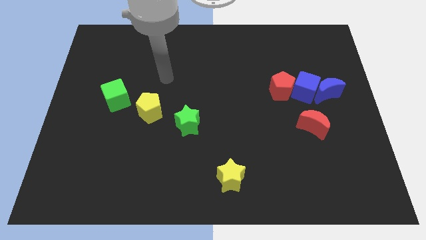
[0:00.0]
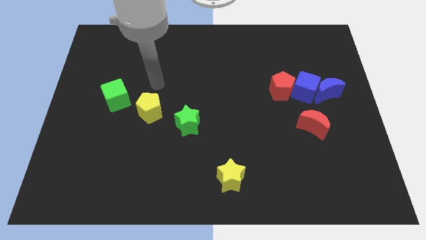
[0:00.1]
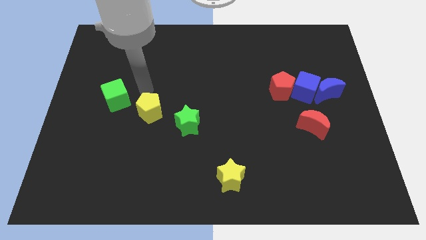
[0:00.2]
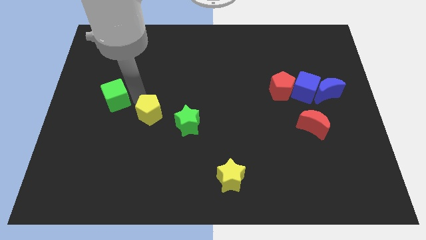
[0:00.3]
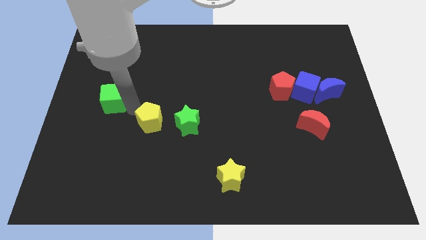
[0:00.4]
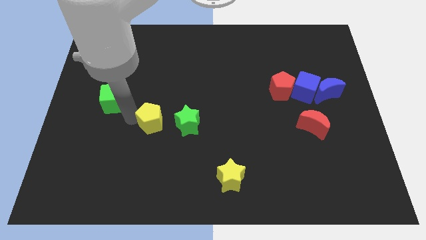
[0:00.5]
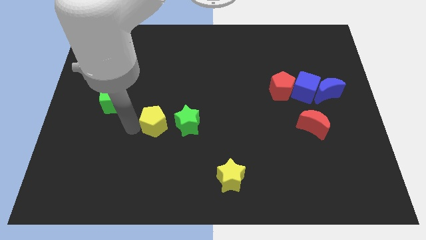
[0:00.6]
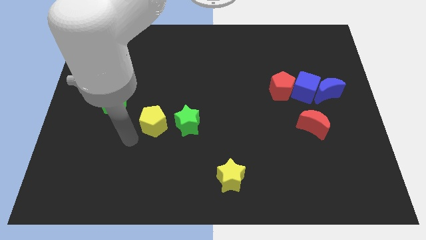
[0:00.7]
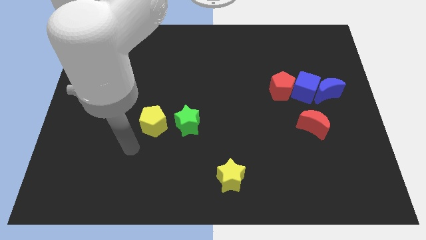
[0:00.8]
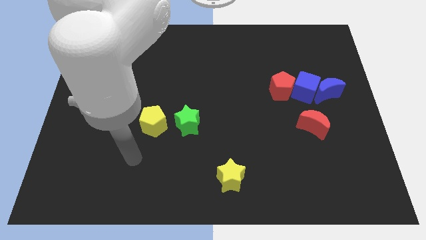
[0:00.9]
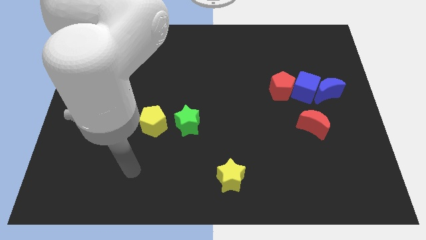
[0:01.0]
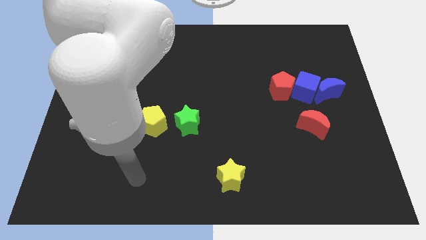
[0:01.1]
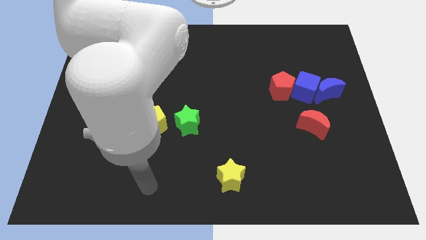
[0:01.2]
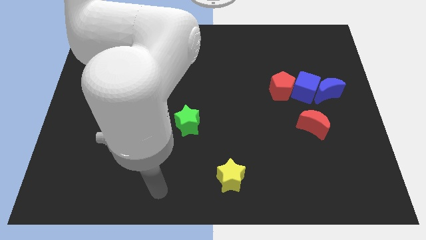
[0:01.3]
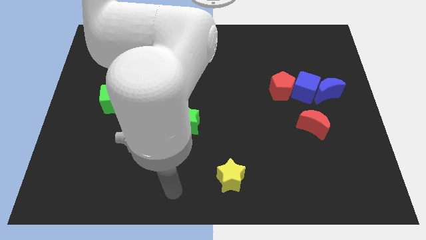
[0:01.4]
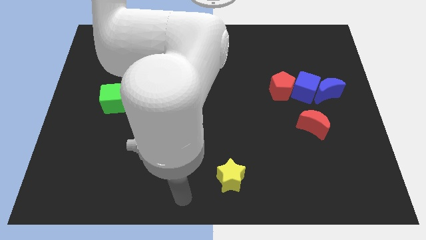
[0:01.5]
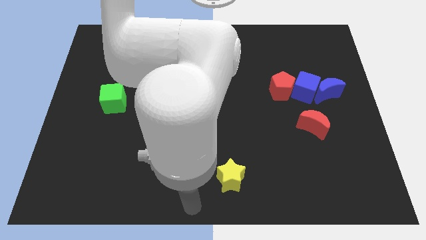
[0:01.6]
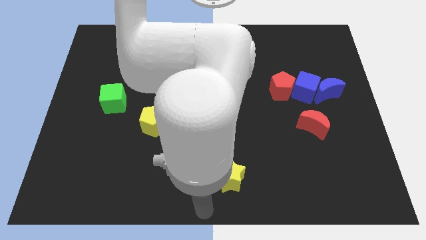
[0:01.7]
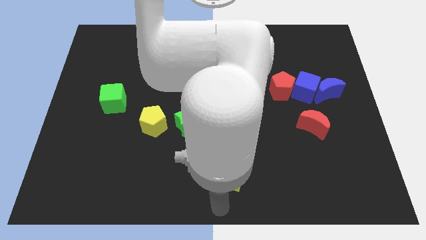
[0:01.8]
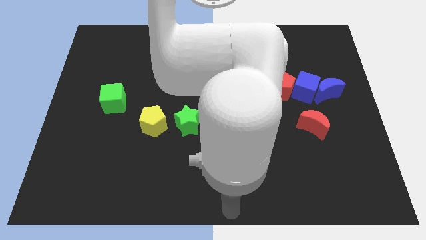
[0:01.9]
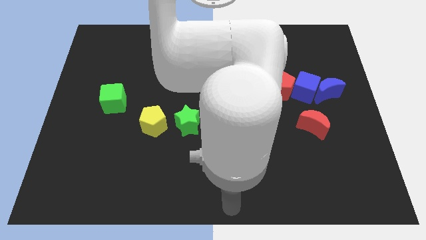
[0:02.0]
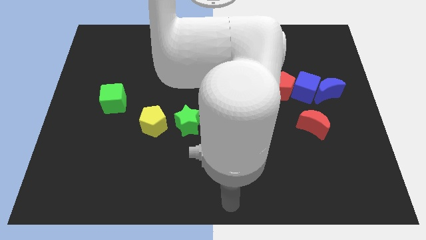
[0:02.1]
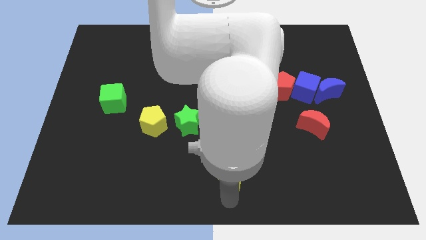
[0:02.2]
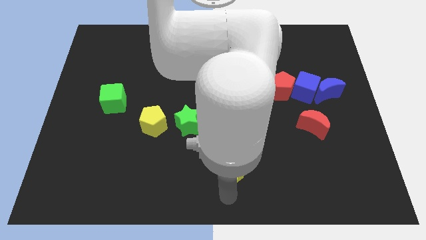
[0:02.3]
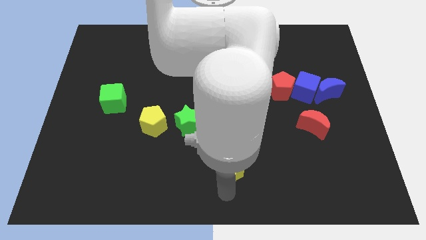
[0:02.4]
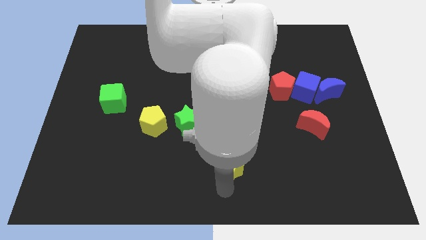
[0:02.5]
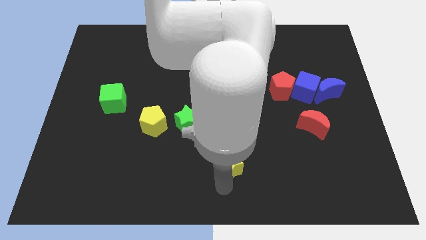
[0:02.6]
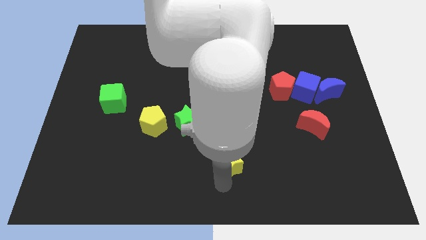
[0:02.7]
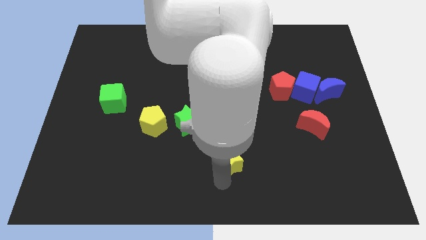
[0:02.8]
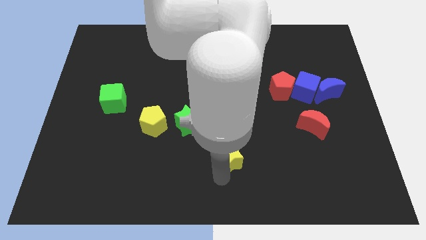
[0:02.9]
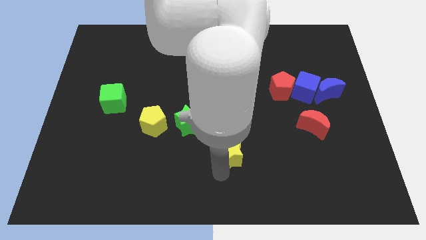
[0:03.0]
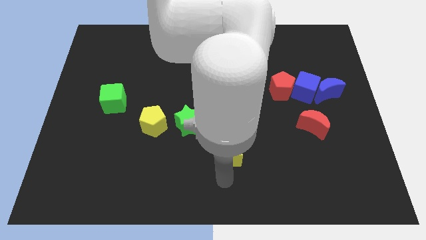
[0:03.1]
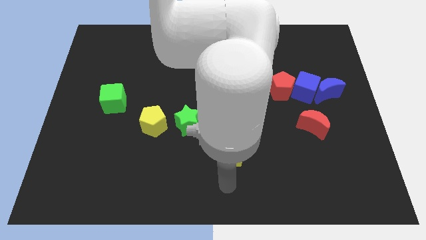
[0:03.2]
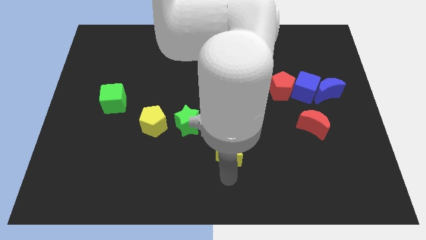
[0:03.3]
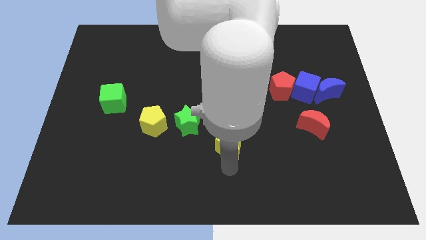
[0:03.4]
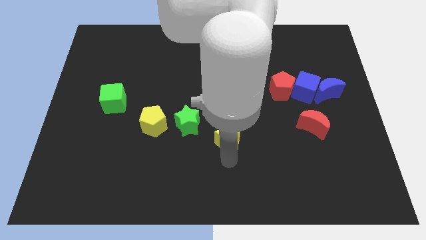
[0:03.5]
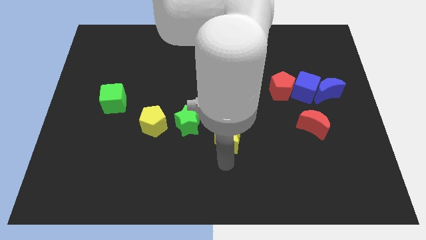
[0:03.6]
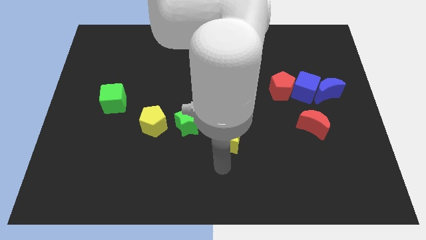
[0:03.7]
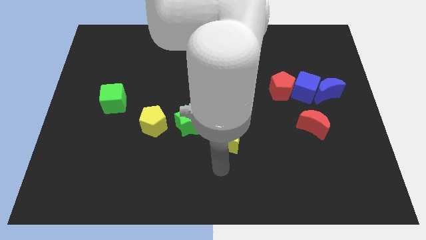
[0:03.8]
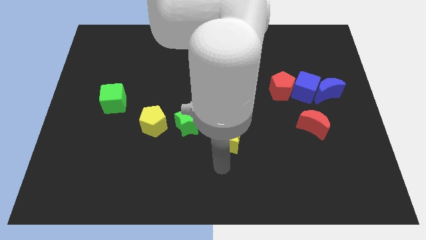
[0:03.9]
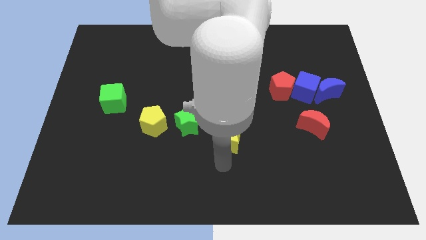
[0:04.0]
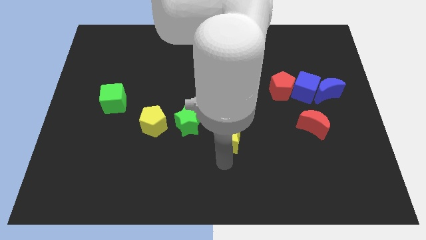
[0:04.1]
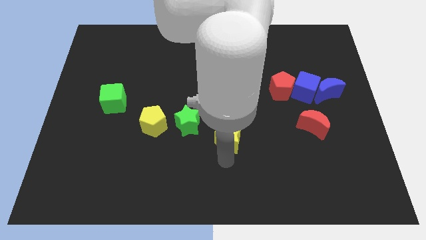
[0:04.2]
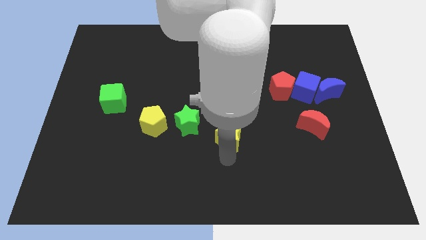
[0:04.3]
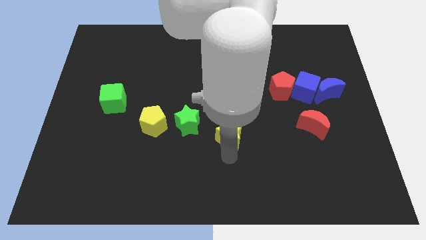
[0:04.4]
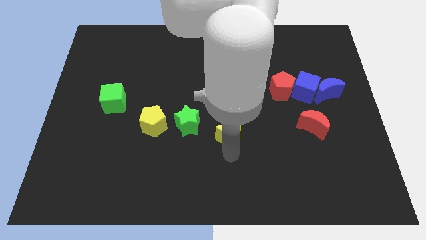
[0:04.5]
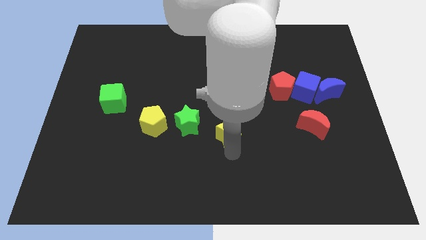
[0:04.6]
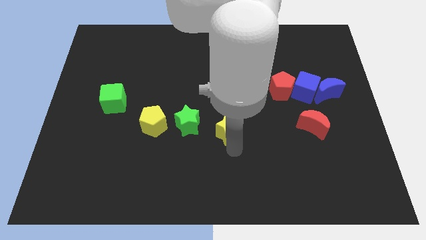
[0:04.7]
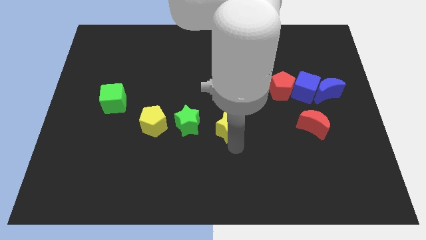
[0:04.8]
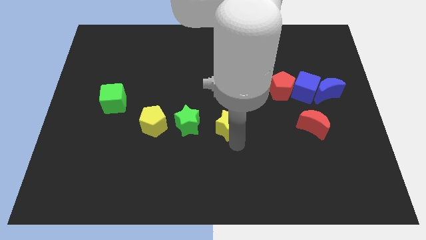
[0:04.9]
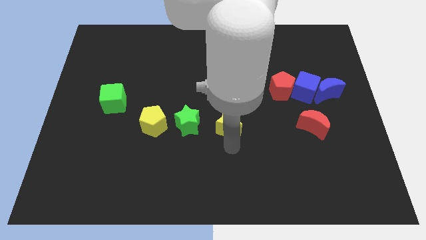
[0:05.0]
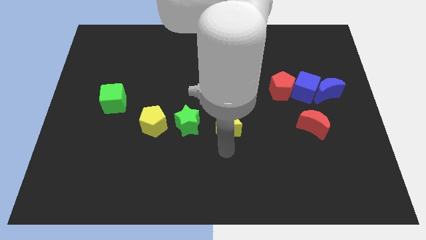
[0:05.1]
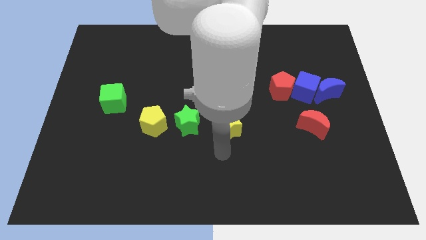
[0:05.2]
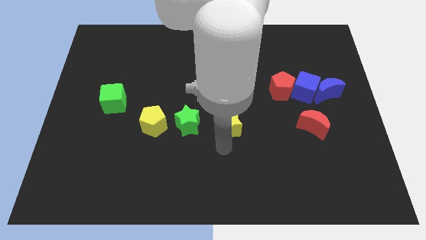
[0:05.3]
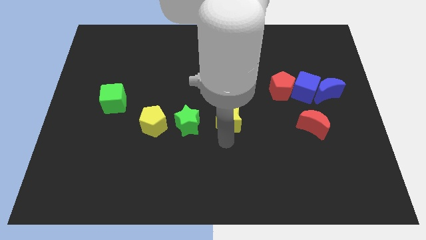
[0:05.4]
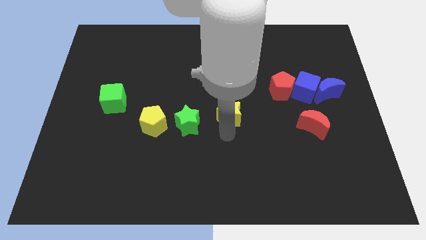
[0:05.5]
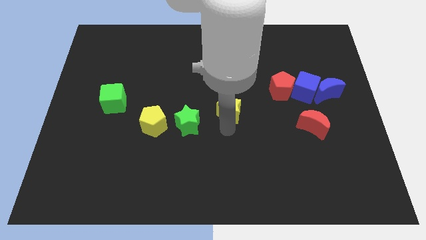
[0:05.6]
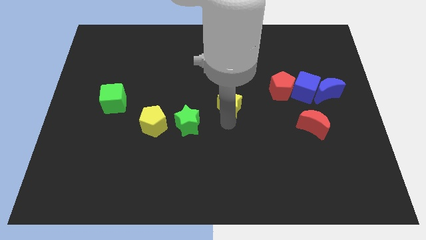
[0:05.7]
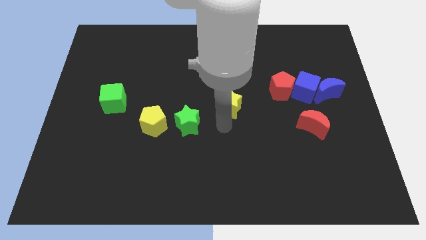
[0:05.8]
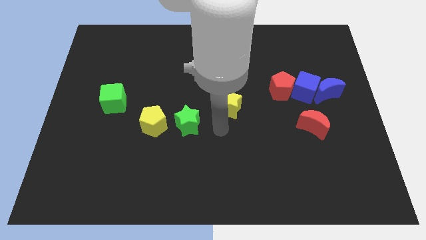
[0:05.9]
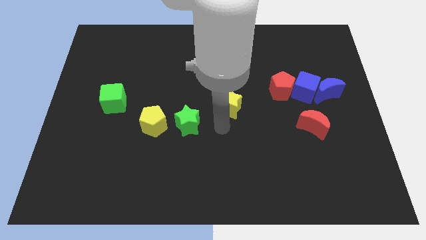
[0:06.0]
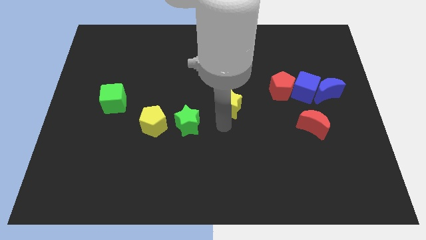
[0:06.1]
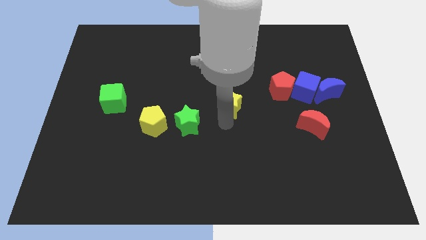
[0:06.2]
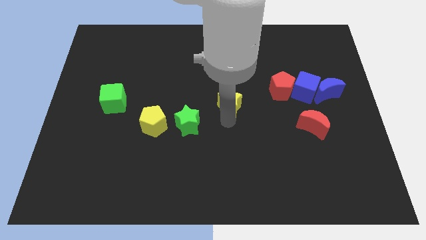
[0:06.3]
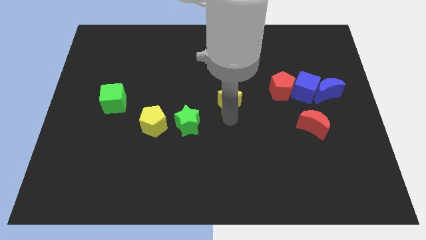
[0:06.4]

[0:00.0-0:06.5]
push the yellow star up

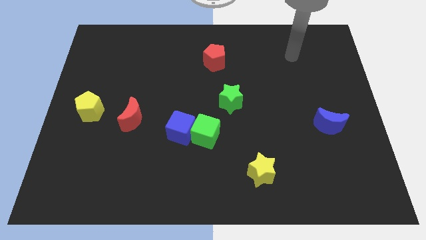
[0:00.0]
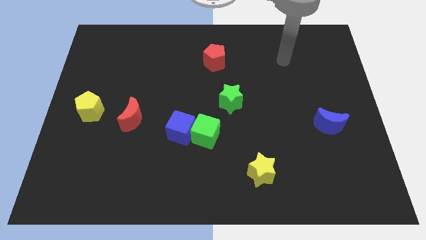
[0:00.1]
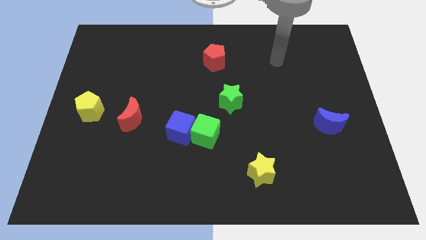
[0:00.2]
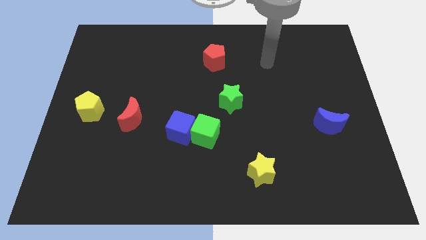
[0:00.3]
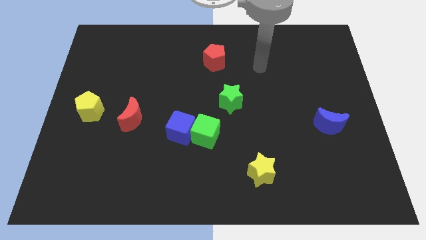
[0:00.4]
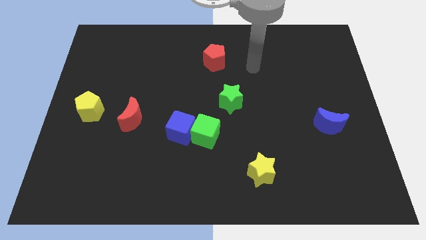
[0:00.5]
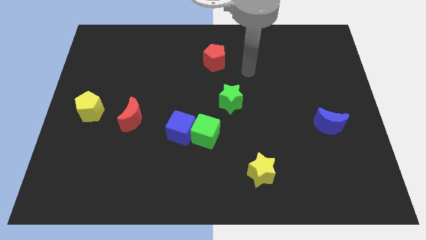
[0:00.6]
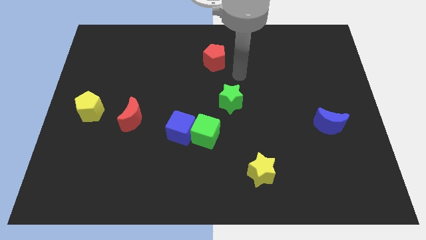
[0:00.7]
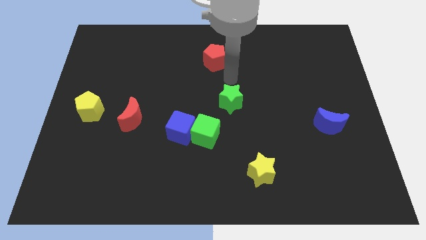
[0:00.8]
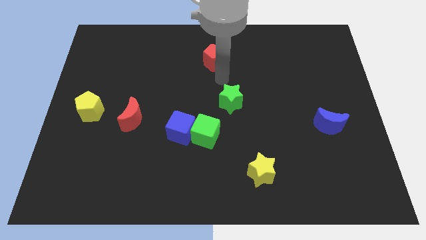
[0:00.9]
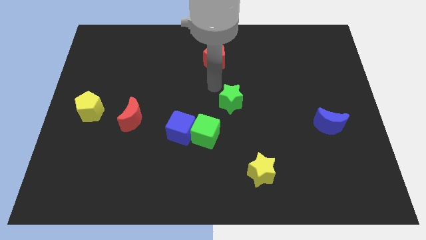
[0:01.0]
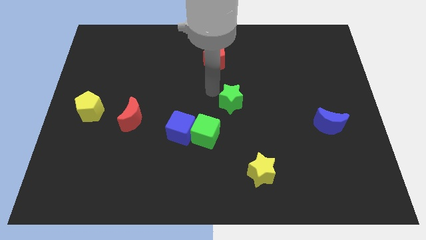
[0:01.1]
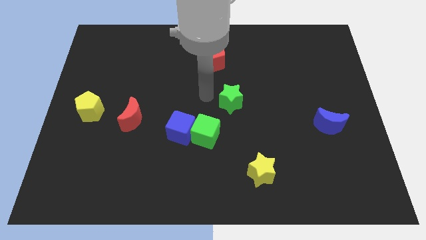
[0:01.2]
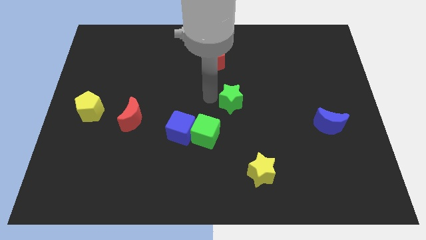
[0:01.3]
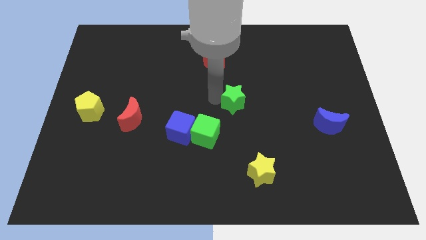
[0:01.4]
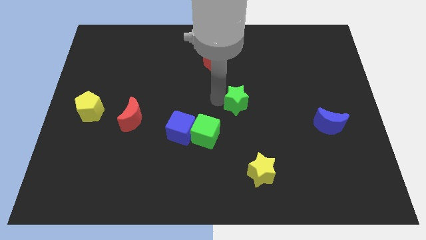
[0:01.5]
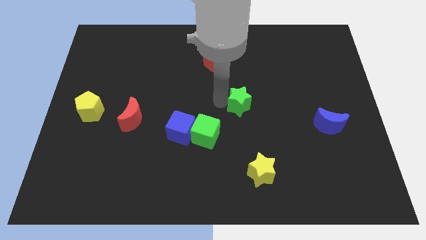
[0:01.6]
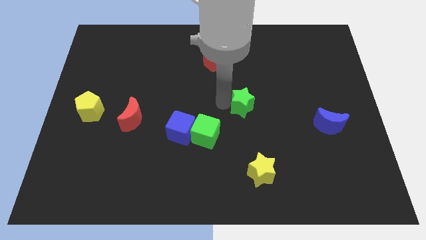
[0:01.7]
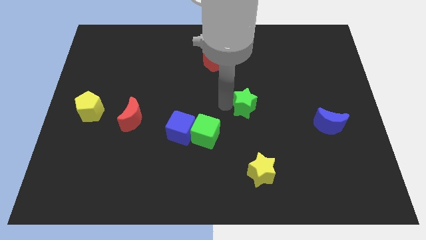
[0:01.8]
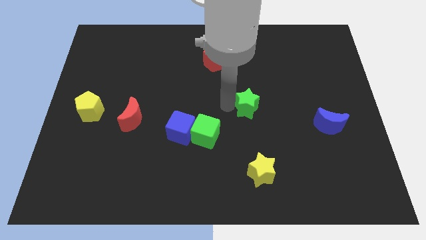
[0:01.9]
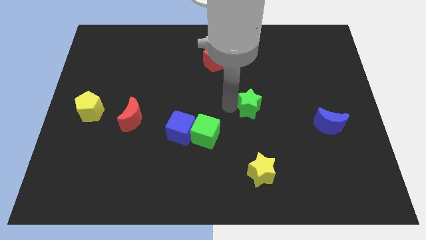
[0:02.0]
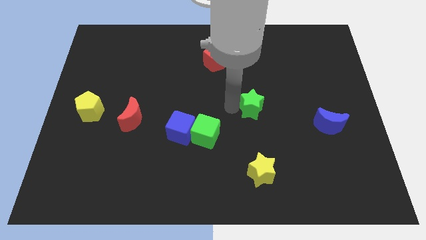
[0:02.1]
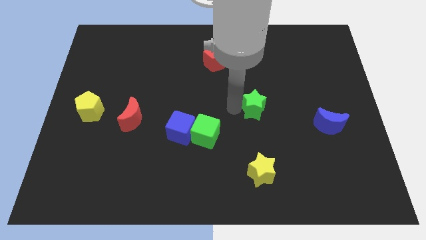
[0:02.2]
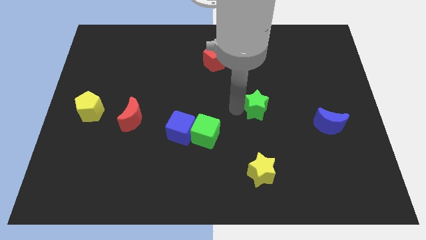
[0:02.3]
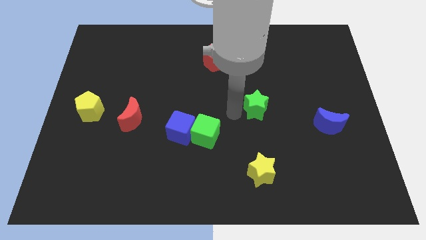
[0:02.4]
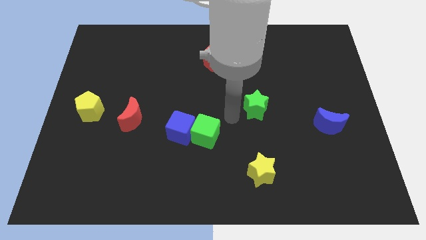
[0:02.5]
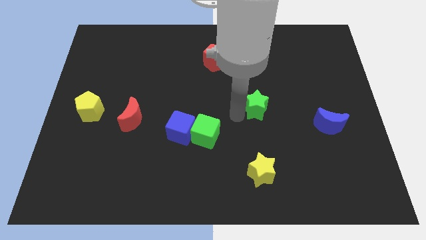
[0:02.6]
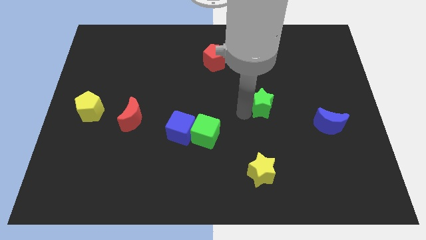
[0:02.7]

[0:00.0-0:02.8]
slightly push the green star right
